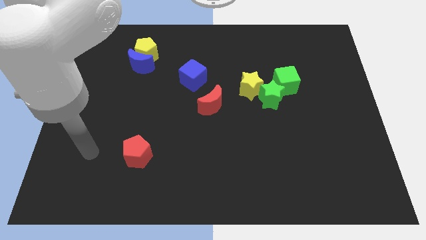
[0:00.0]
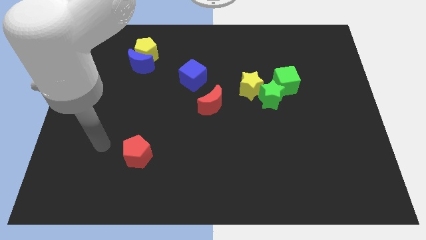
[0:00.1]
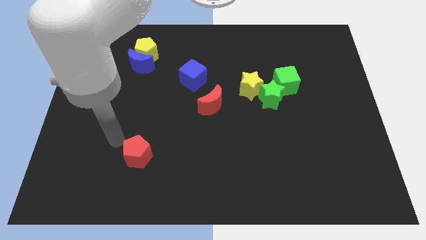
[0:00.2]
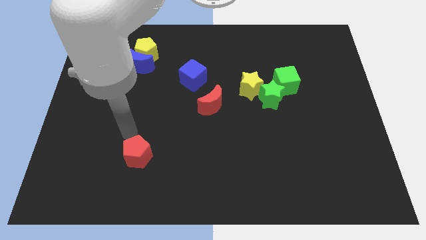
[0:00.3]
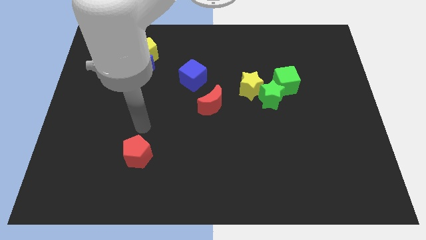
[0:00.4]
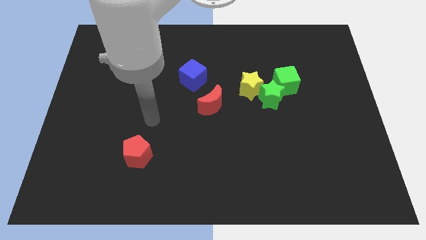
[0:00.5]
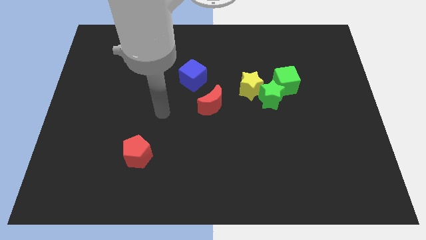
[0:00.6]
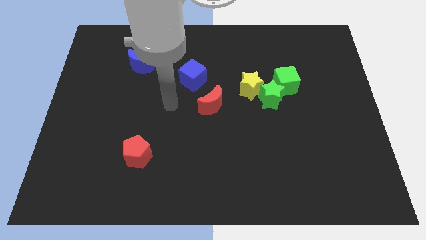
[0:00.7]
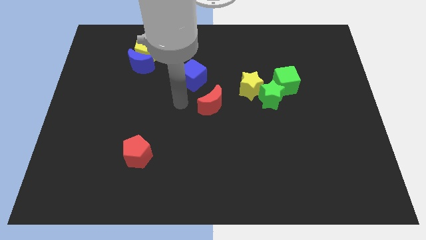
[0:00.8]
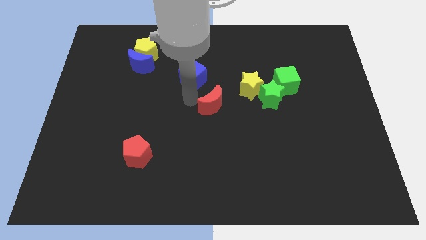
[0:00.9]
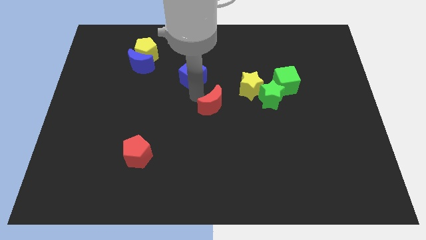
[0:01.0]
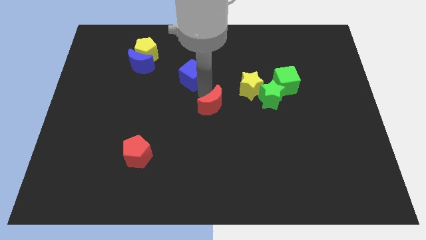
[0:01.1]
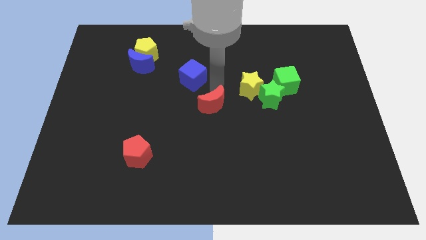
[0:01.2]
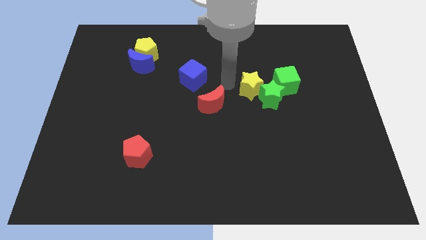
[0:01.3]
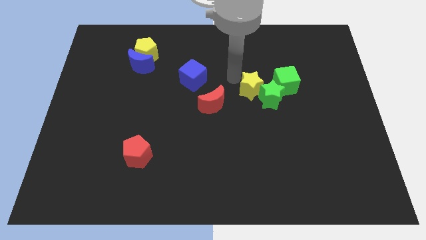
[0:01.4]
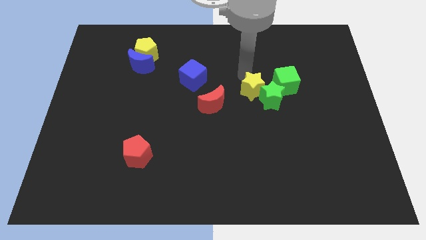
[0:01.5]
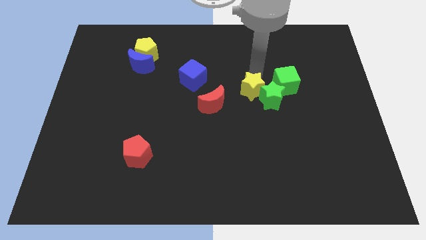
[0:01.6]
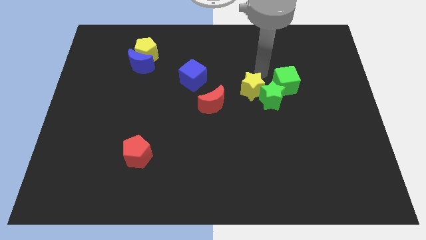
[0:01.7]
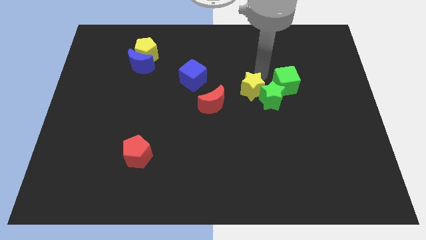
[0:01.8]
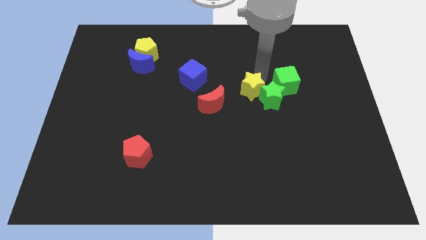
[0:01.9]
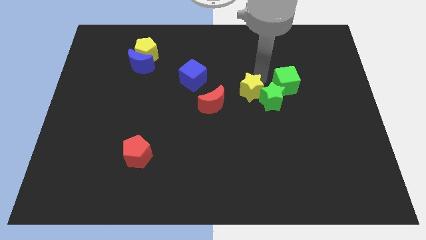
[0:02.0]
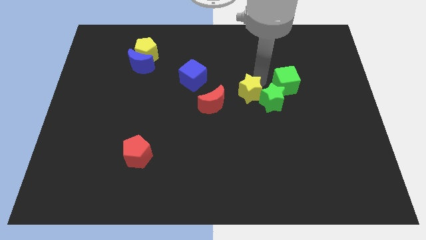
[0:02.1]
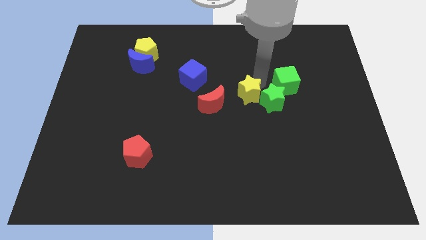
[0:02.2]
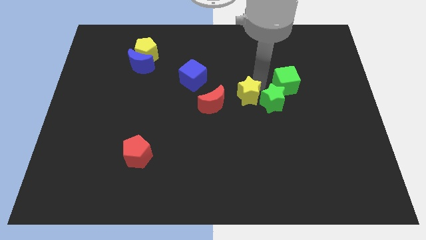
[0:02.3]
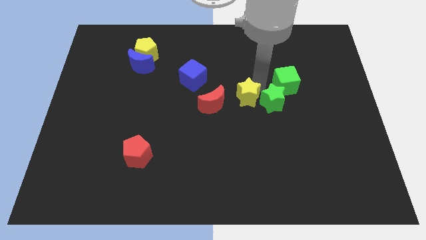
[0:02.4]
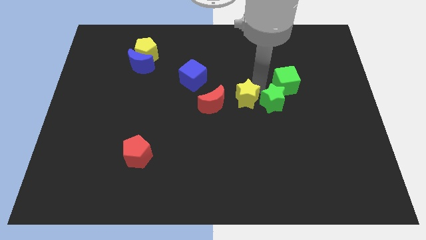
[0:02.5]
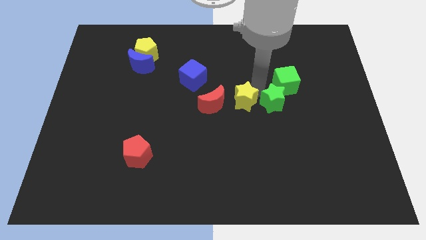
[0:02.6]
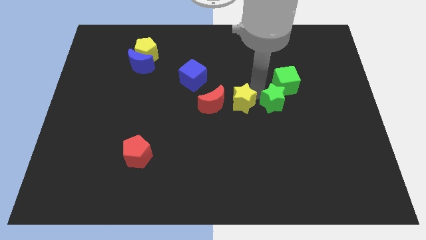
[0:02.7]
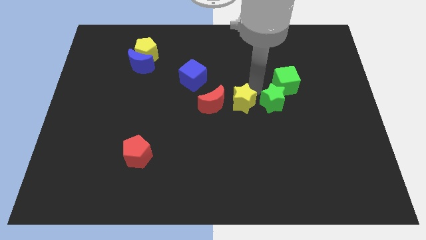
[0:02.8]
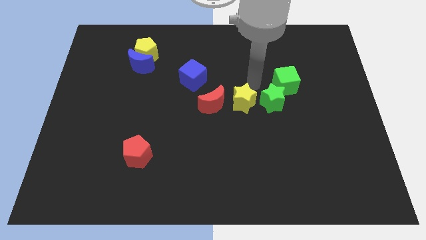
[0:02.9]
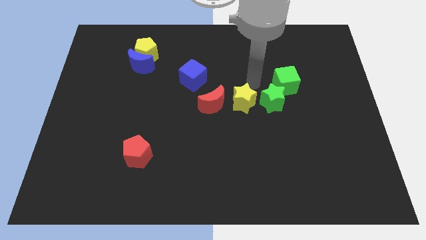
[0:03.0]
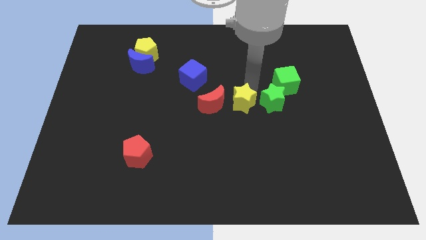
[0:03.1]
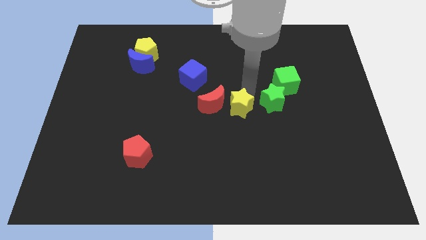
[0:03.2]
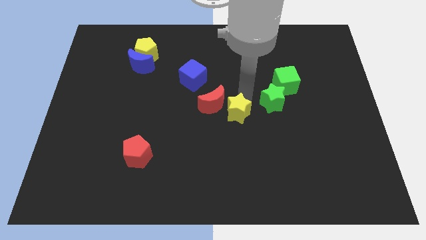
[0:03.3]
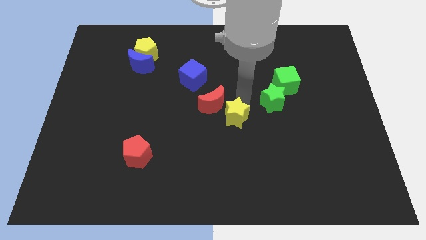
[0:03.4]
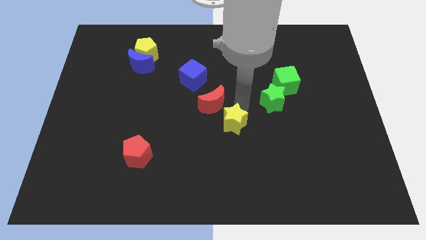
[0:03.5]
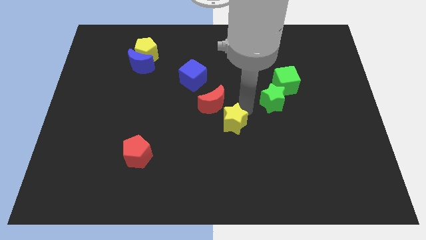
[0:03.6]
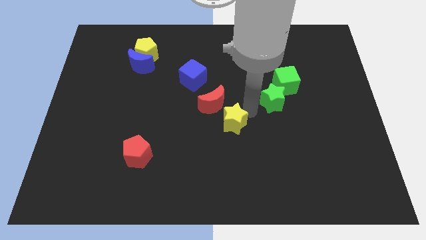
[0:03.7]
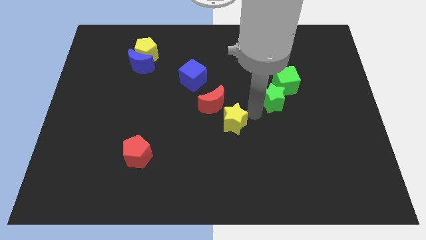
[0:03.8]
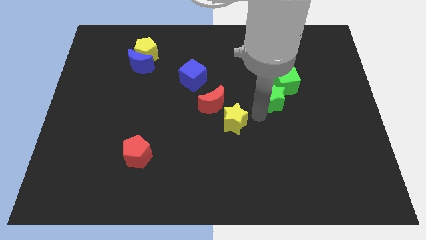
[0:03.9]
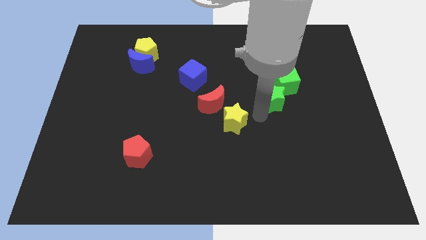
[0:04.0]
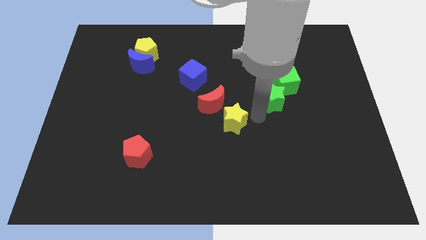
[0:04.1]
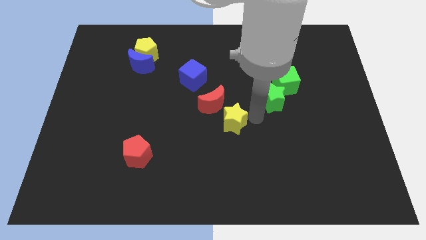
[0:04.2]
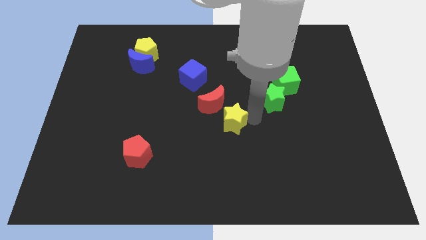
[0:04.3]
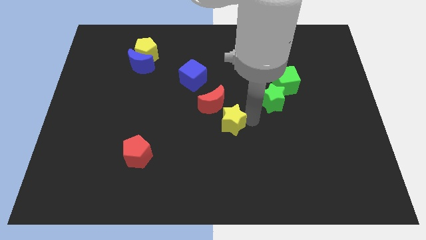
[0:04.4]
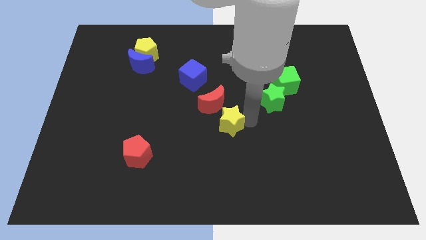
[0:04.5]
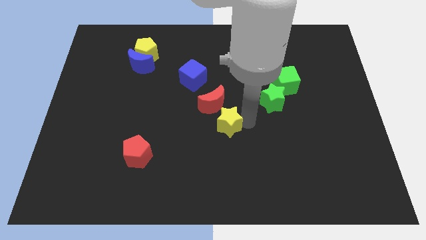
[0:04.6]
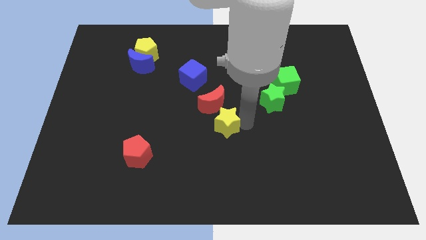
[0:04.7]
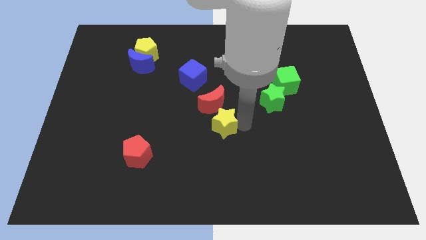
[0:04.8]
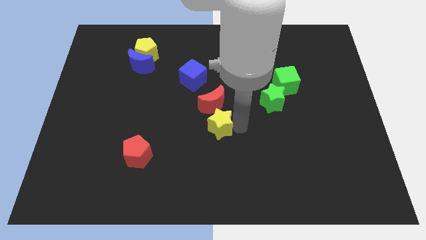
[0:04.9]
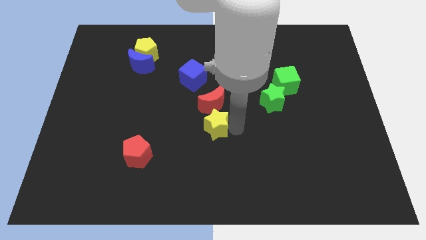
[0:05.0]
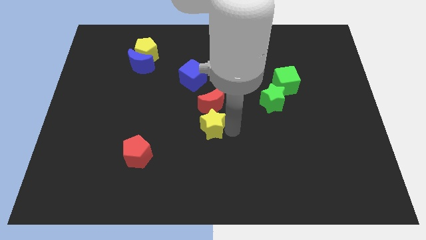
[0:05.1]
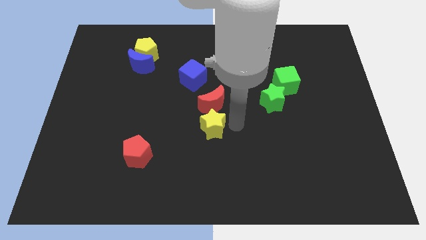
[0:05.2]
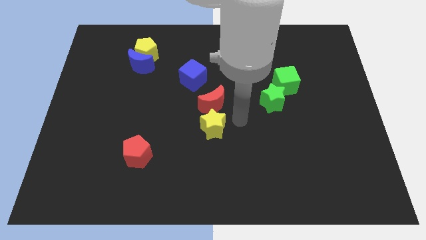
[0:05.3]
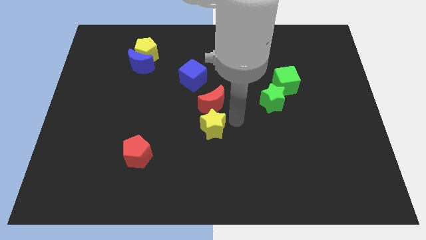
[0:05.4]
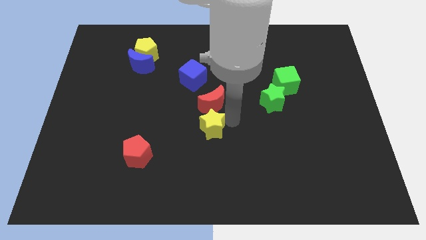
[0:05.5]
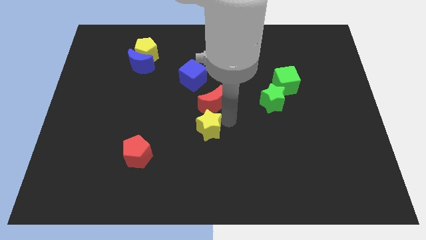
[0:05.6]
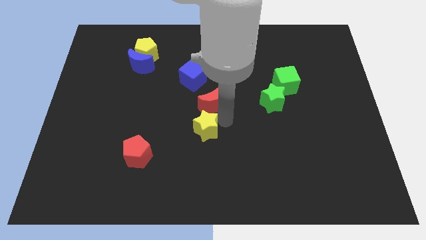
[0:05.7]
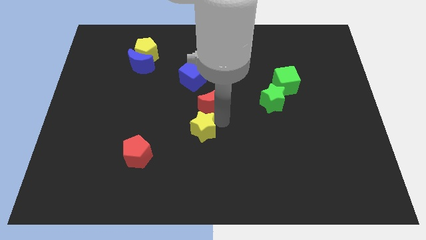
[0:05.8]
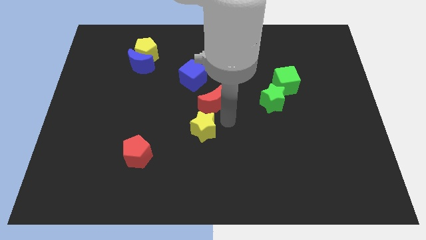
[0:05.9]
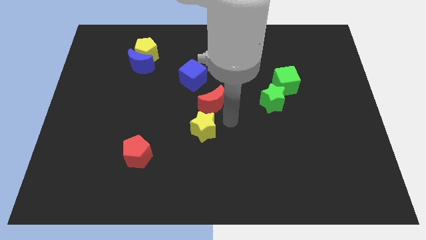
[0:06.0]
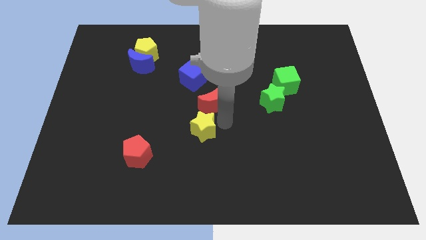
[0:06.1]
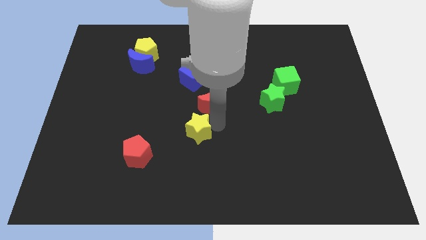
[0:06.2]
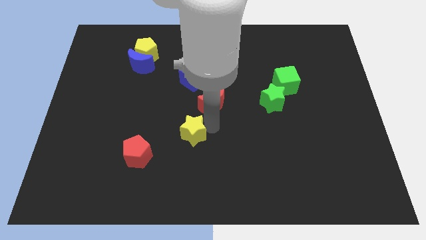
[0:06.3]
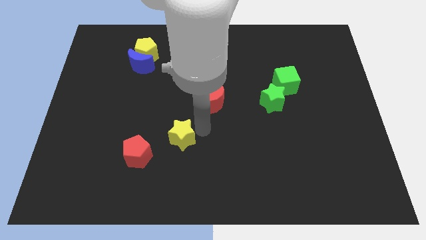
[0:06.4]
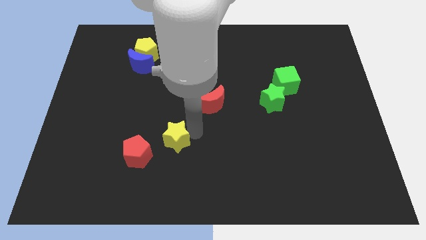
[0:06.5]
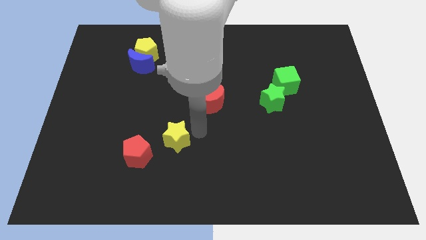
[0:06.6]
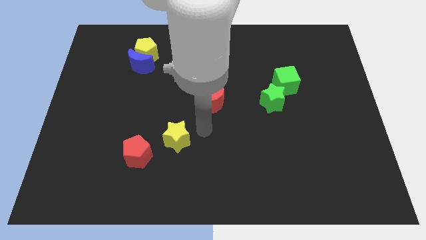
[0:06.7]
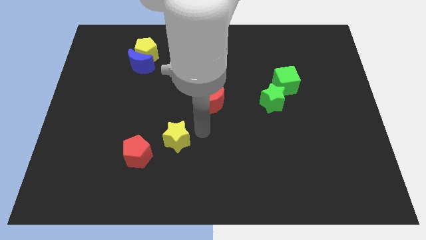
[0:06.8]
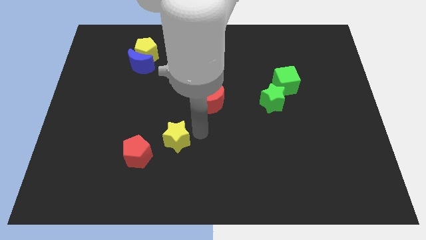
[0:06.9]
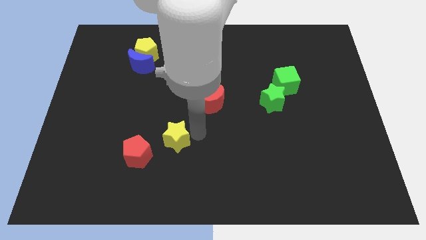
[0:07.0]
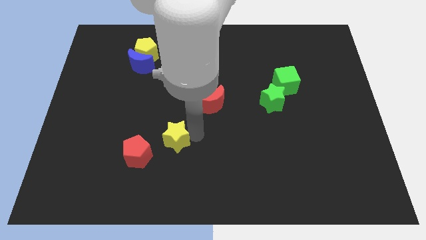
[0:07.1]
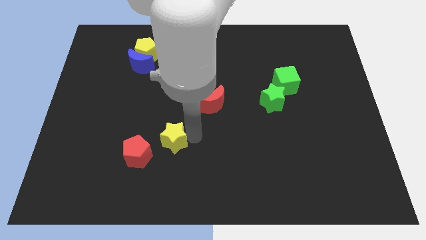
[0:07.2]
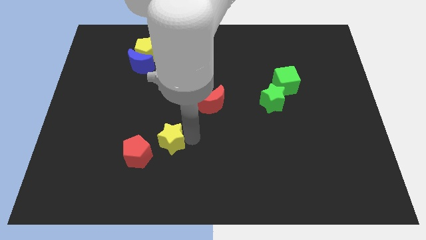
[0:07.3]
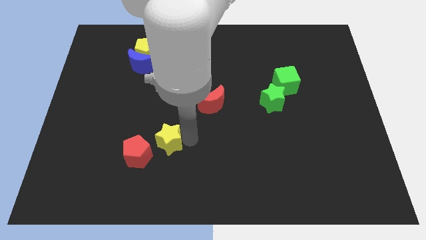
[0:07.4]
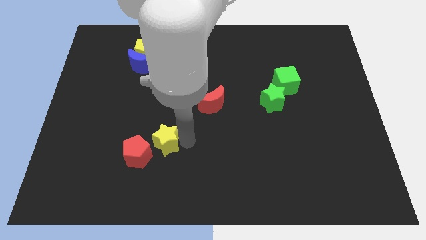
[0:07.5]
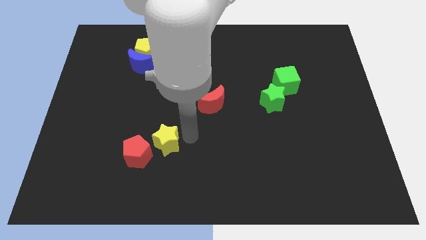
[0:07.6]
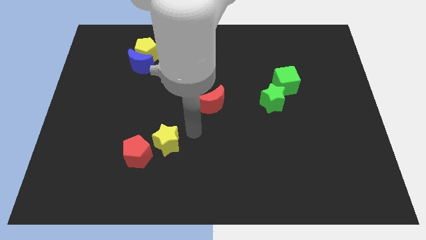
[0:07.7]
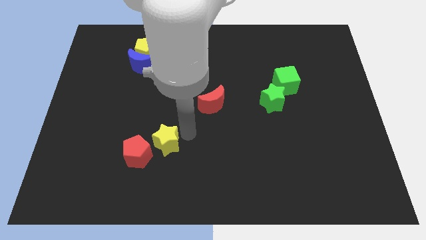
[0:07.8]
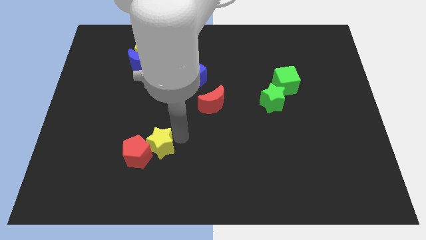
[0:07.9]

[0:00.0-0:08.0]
push the yellow star next to the red pentagon

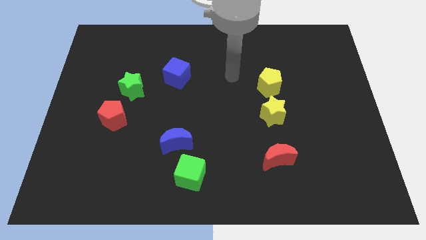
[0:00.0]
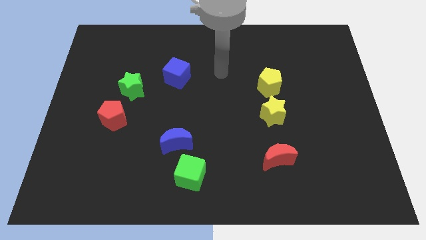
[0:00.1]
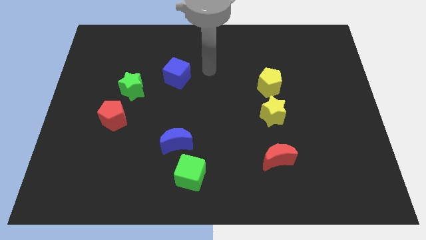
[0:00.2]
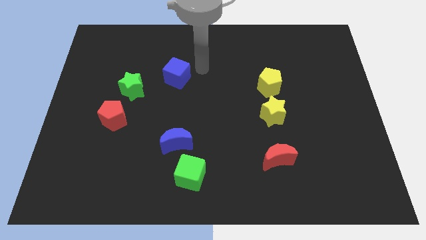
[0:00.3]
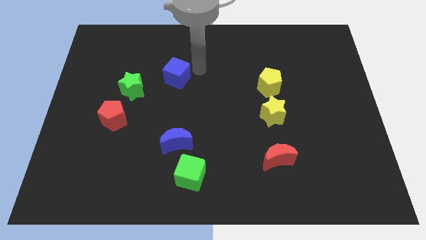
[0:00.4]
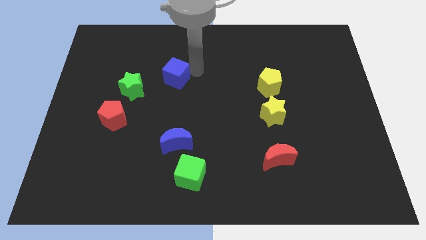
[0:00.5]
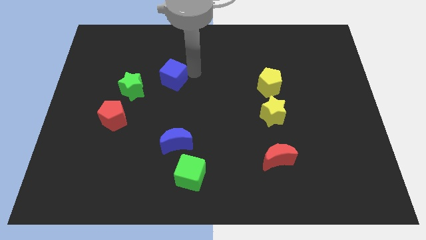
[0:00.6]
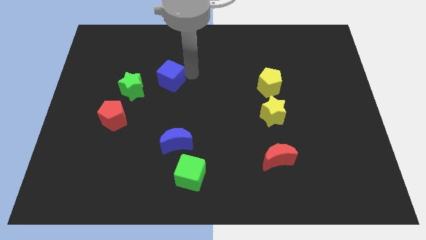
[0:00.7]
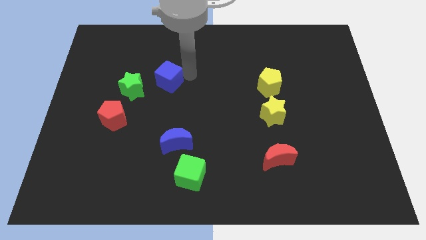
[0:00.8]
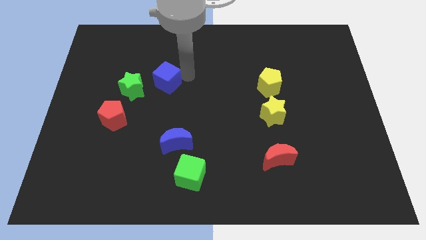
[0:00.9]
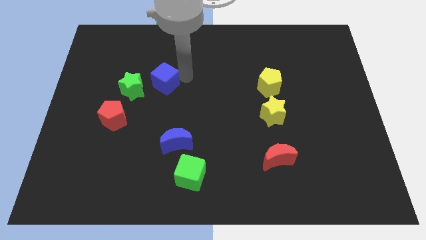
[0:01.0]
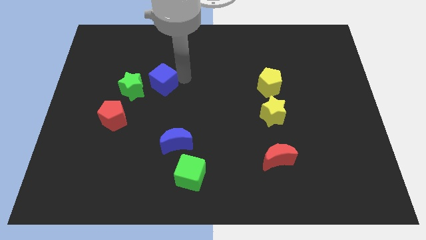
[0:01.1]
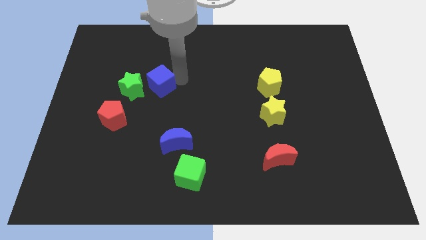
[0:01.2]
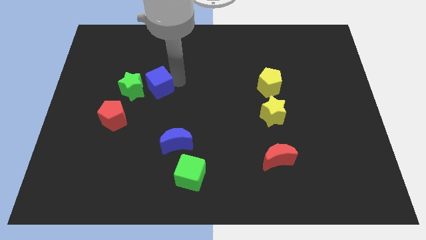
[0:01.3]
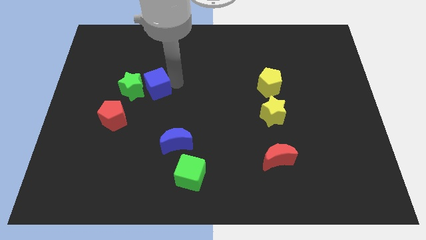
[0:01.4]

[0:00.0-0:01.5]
slide the blue cube next to the green star
